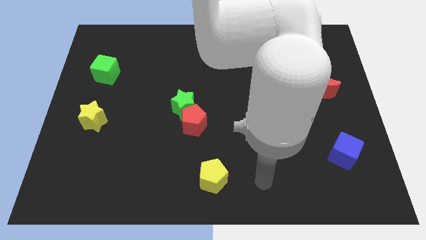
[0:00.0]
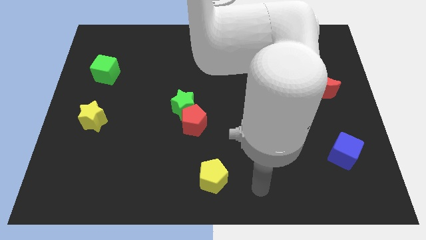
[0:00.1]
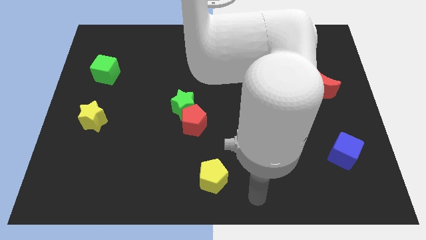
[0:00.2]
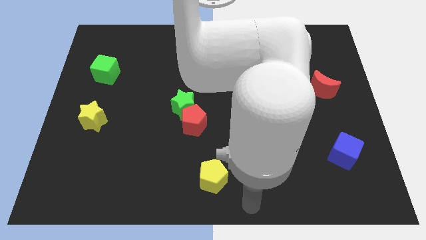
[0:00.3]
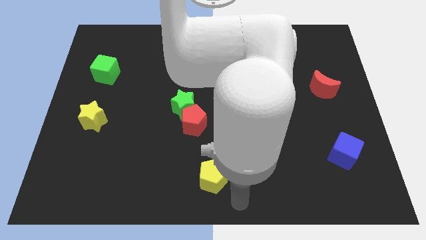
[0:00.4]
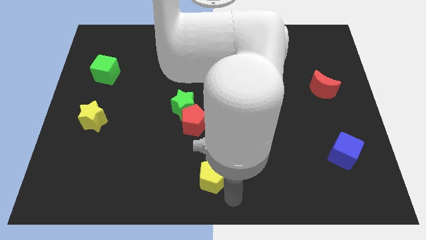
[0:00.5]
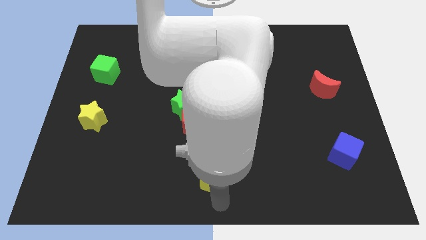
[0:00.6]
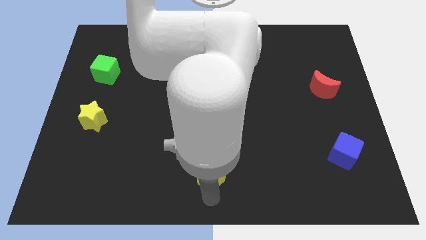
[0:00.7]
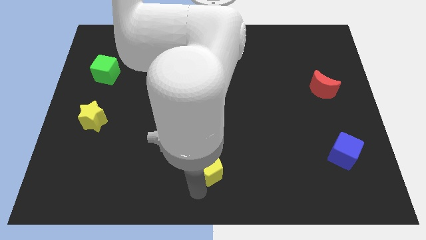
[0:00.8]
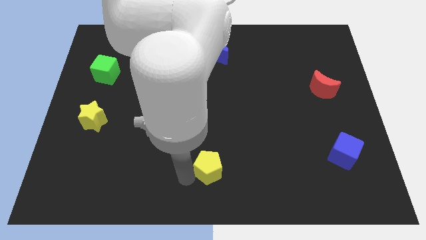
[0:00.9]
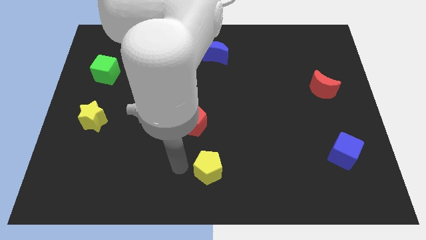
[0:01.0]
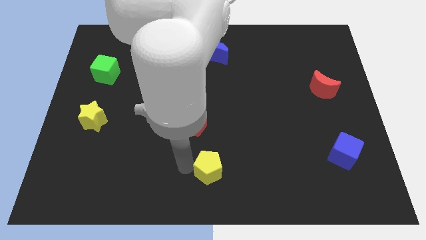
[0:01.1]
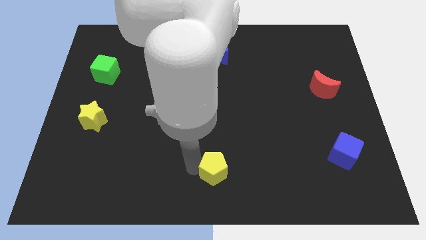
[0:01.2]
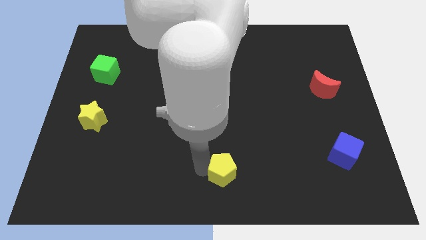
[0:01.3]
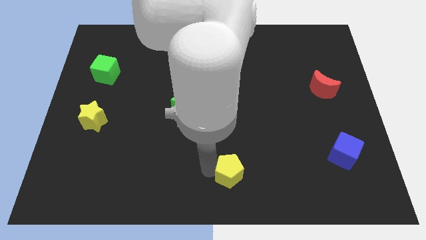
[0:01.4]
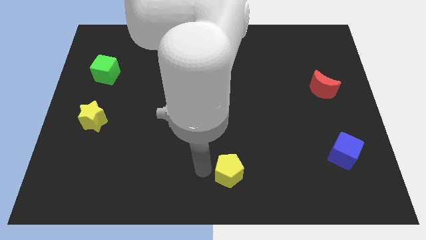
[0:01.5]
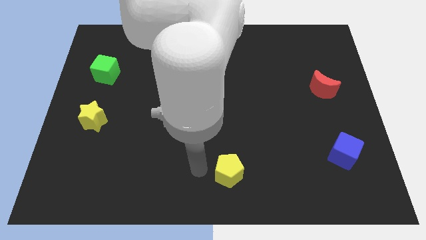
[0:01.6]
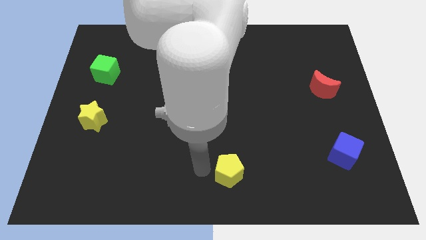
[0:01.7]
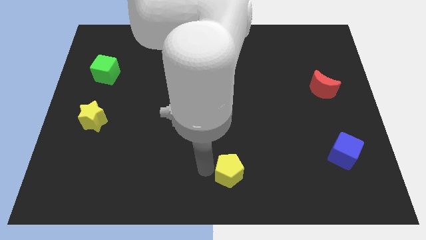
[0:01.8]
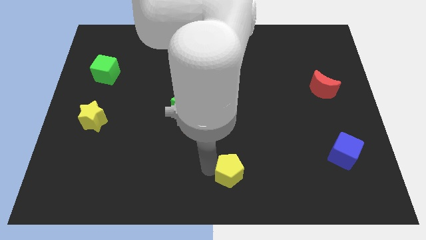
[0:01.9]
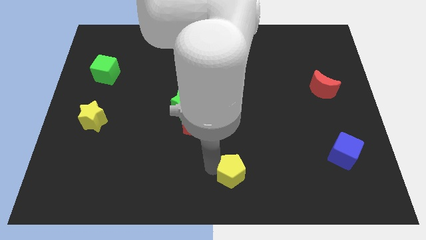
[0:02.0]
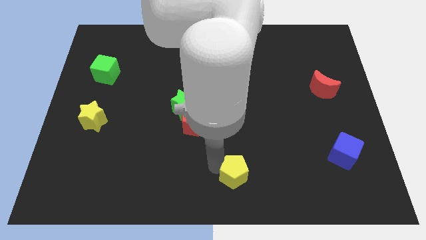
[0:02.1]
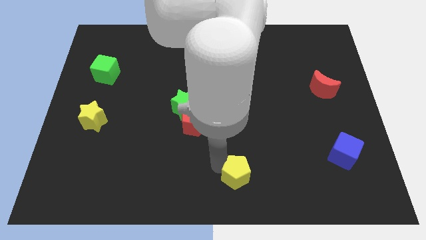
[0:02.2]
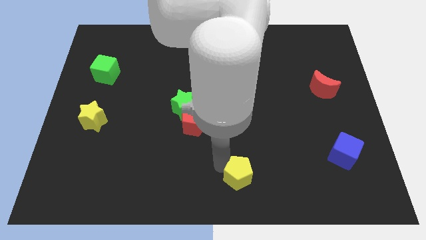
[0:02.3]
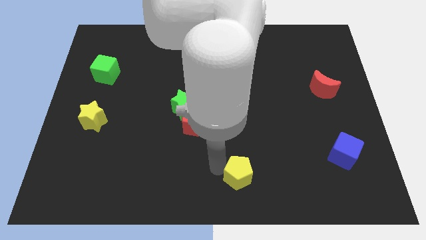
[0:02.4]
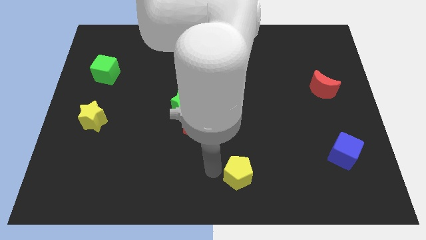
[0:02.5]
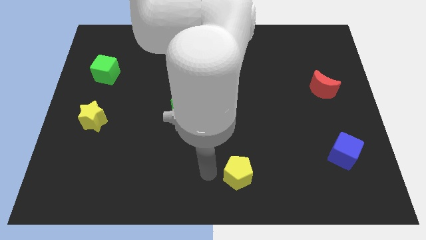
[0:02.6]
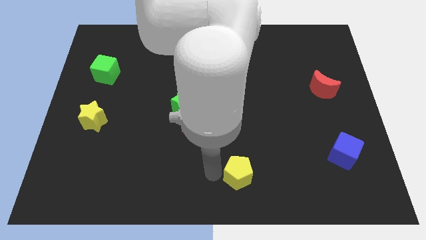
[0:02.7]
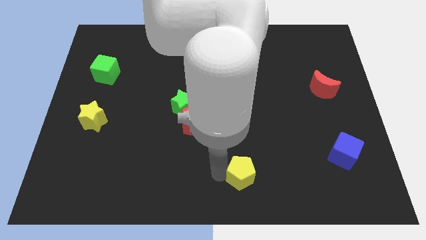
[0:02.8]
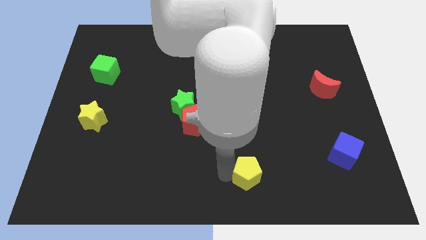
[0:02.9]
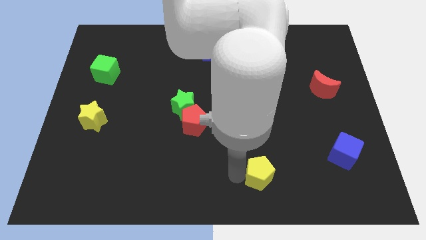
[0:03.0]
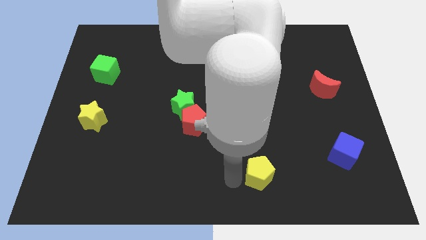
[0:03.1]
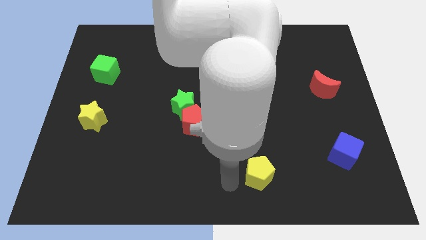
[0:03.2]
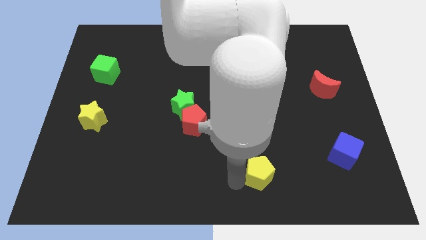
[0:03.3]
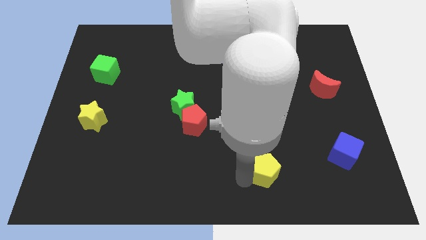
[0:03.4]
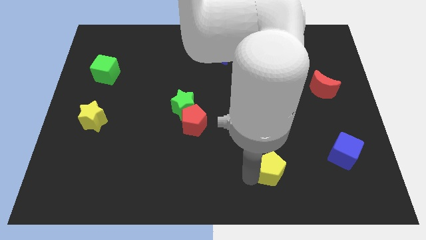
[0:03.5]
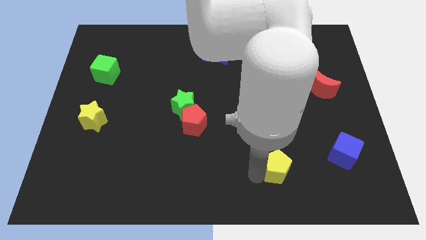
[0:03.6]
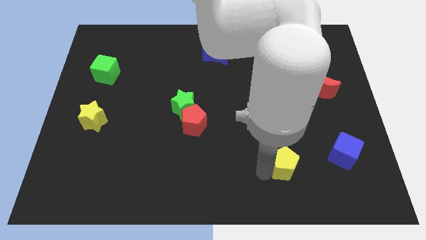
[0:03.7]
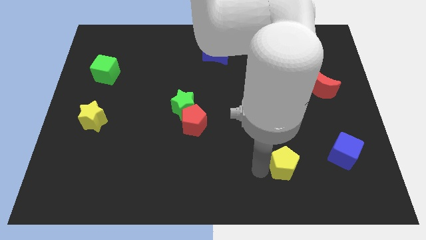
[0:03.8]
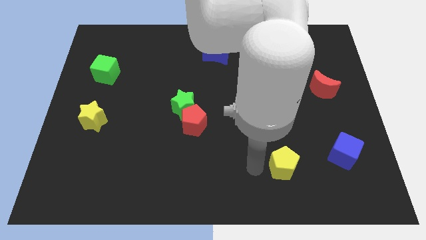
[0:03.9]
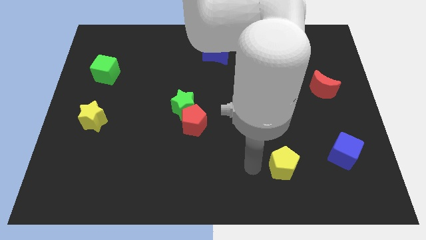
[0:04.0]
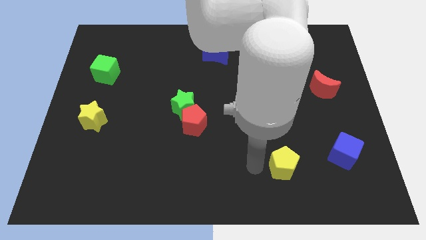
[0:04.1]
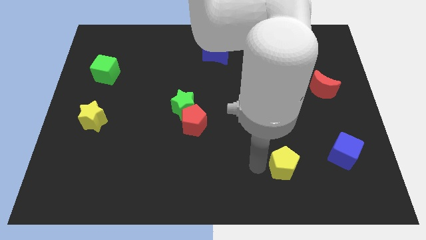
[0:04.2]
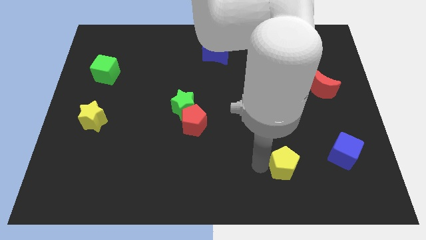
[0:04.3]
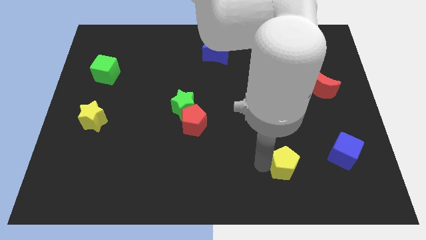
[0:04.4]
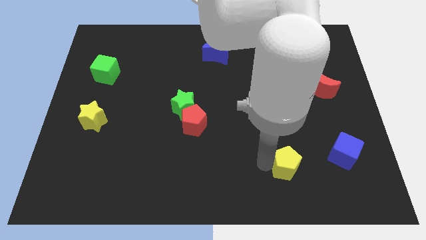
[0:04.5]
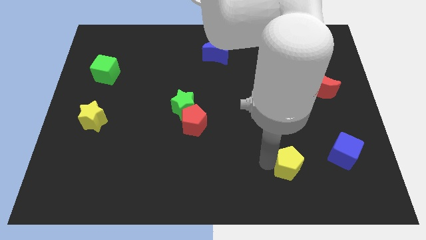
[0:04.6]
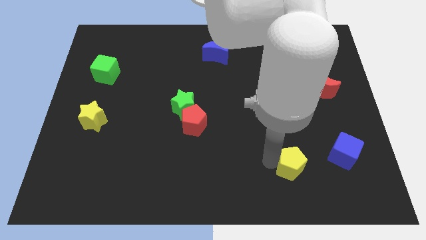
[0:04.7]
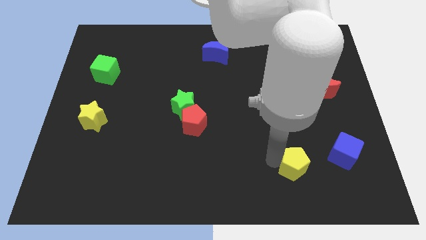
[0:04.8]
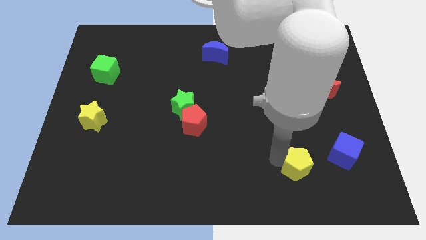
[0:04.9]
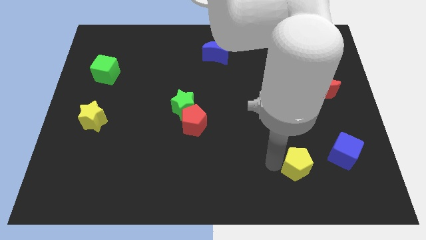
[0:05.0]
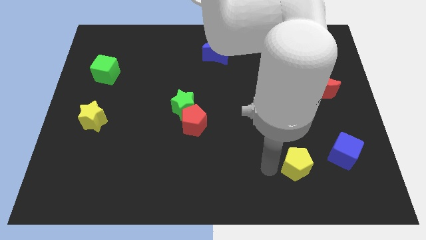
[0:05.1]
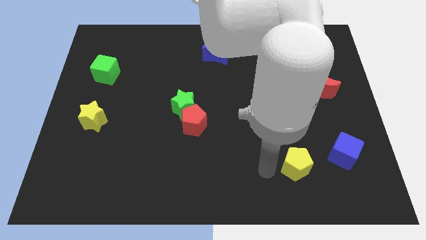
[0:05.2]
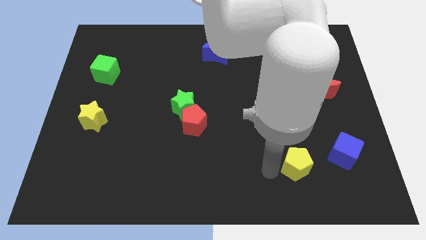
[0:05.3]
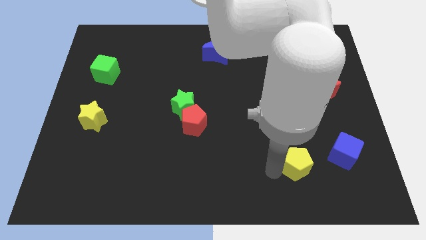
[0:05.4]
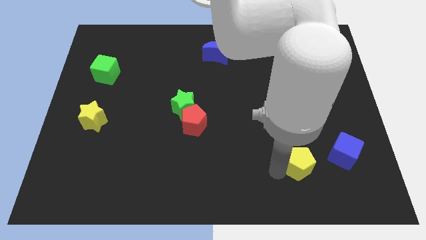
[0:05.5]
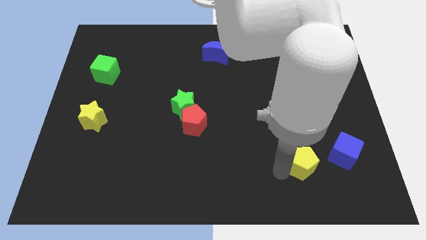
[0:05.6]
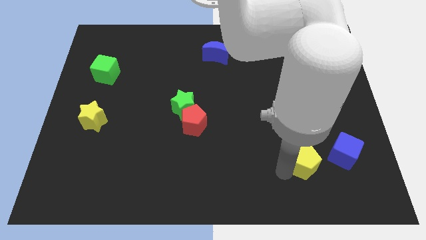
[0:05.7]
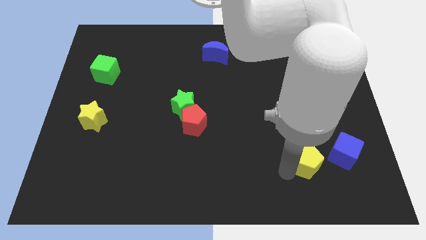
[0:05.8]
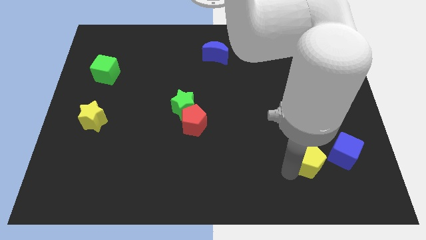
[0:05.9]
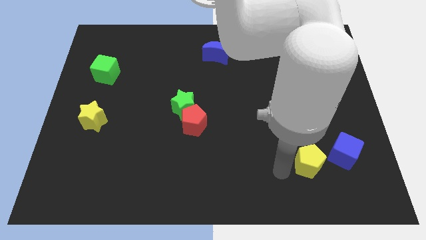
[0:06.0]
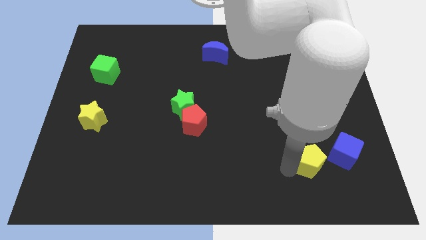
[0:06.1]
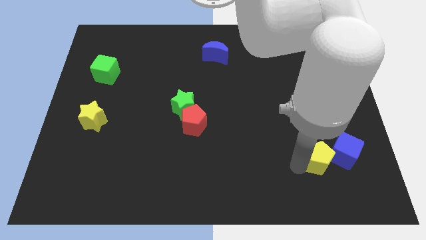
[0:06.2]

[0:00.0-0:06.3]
slide the yellow pentagon towards the blue cube

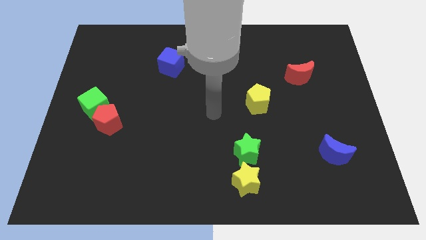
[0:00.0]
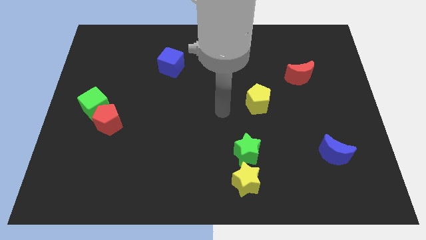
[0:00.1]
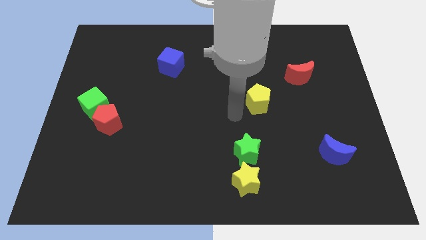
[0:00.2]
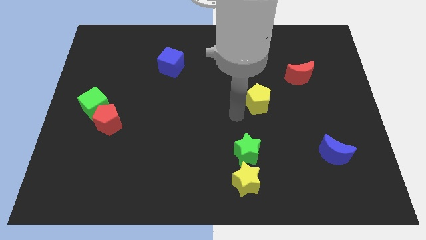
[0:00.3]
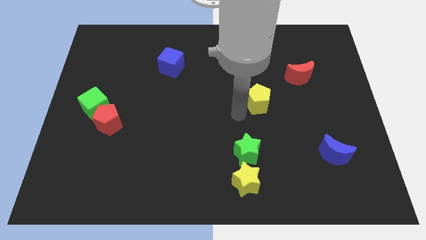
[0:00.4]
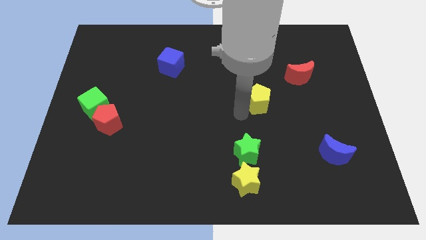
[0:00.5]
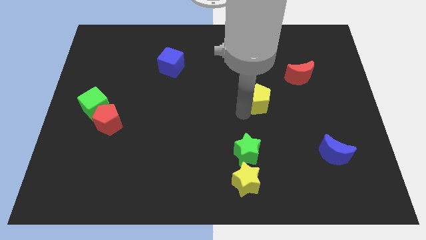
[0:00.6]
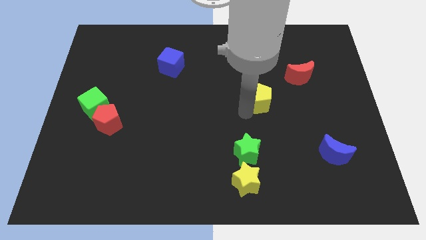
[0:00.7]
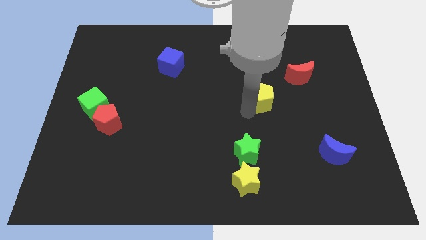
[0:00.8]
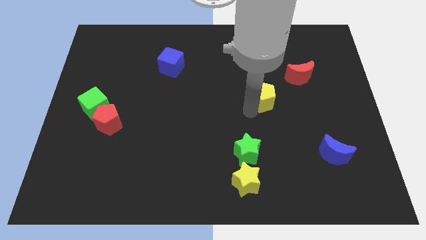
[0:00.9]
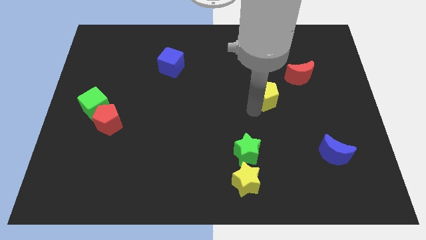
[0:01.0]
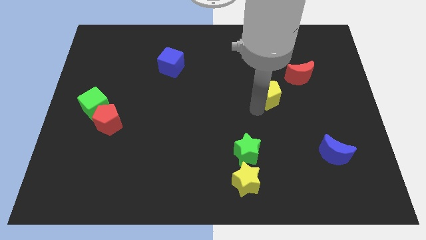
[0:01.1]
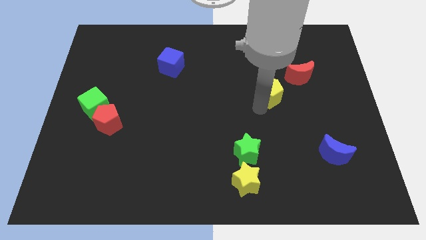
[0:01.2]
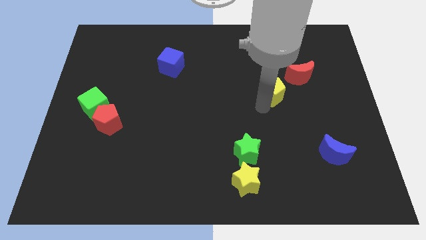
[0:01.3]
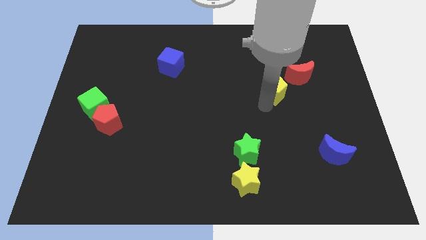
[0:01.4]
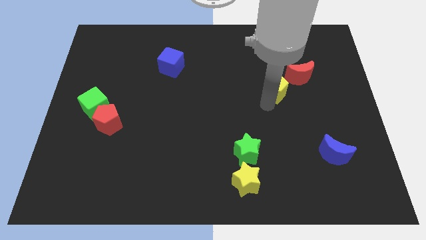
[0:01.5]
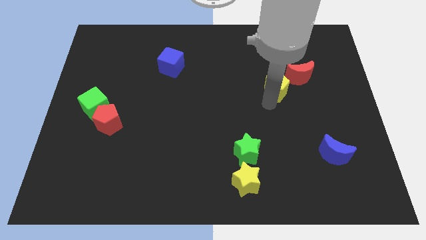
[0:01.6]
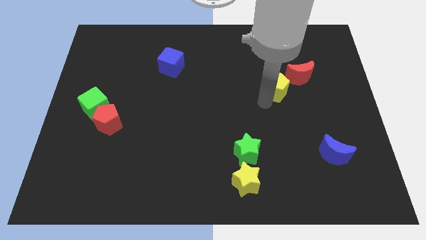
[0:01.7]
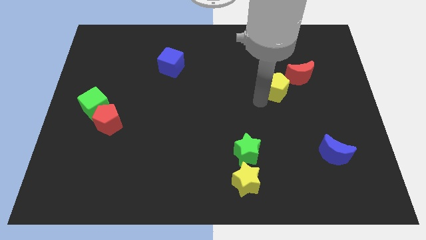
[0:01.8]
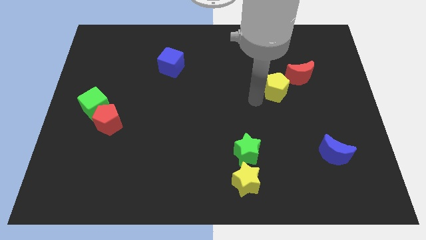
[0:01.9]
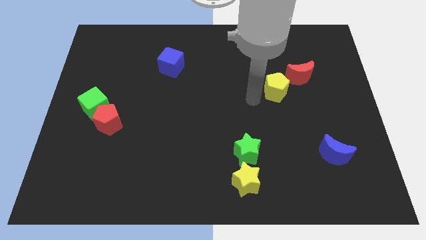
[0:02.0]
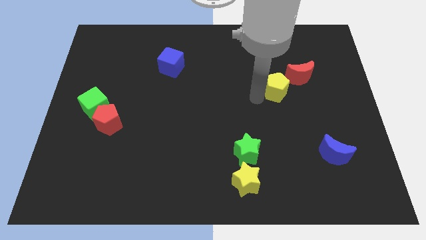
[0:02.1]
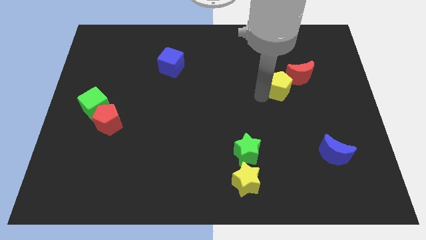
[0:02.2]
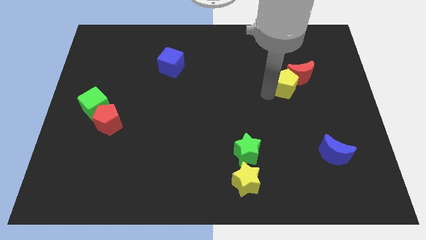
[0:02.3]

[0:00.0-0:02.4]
put the yellow pentagon towards the red moon
